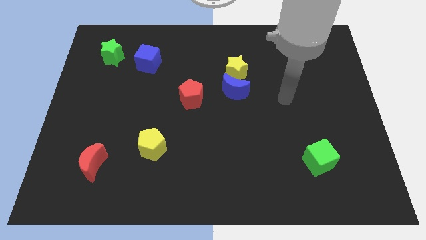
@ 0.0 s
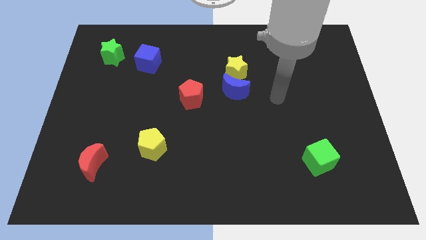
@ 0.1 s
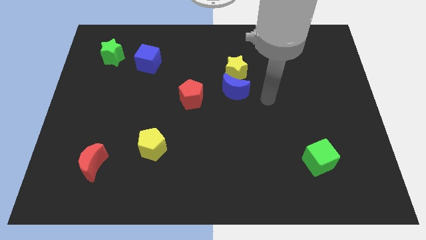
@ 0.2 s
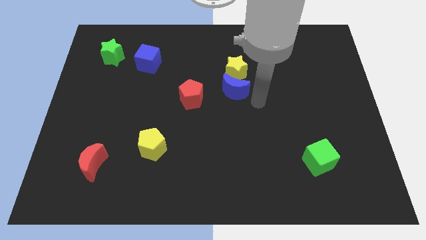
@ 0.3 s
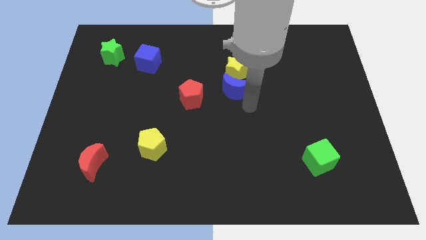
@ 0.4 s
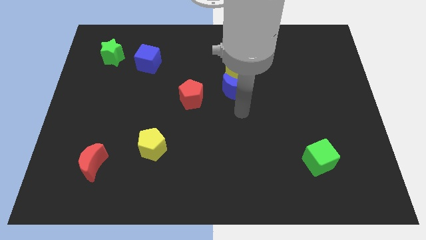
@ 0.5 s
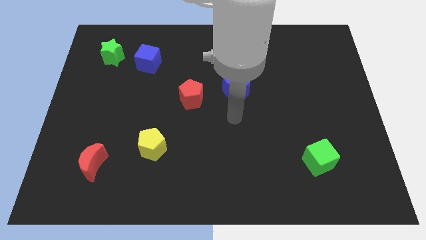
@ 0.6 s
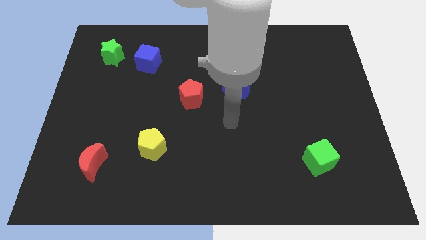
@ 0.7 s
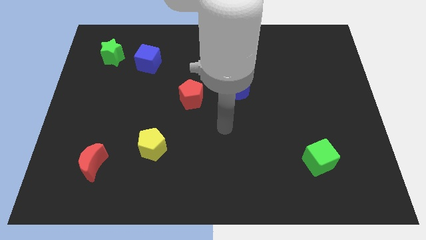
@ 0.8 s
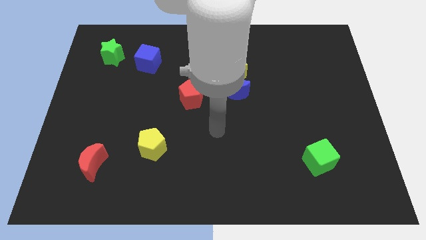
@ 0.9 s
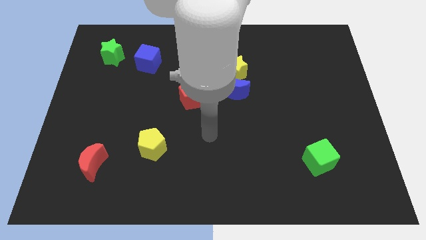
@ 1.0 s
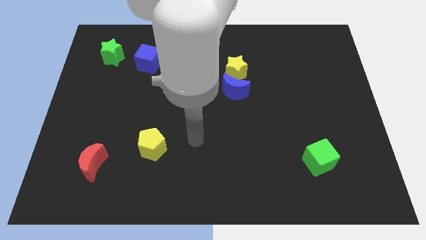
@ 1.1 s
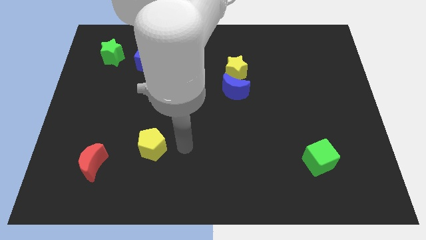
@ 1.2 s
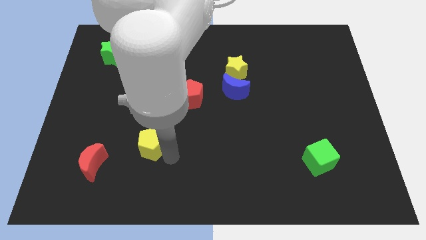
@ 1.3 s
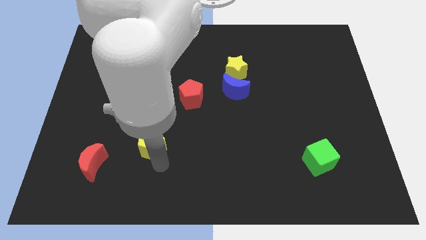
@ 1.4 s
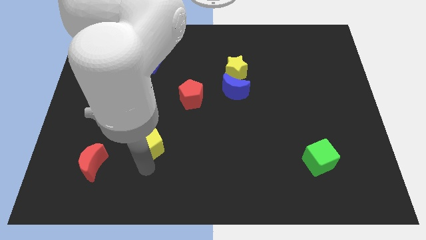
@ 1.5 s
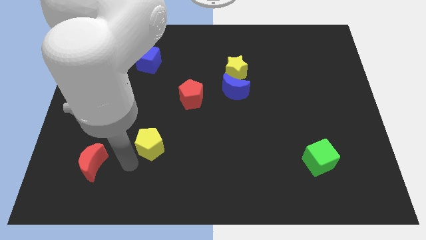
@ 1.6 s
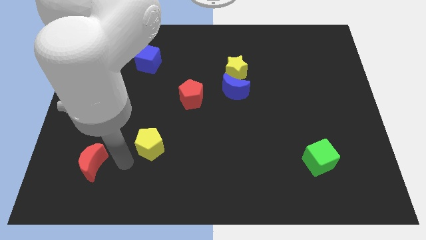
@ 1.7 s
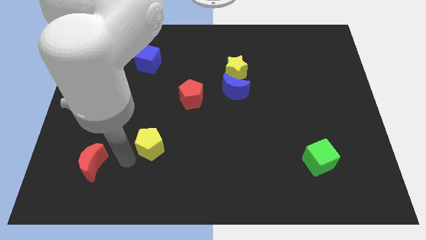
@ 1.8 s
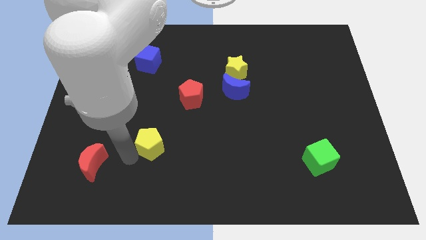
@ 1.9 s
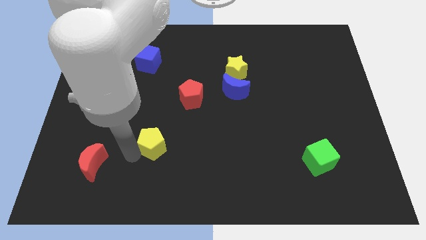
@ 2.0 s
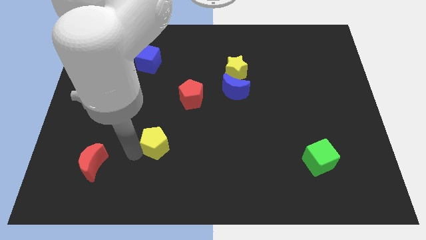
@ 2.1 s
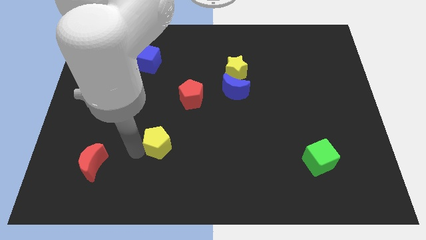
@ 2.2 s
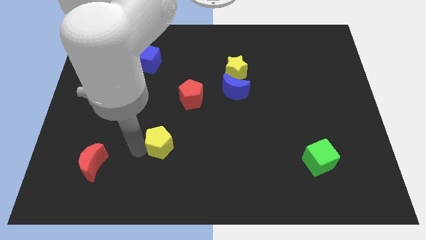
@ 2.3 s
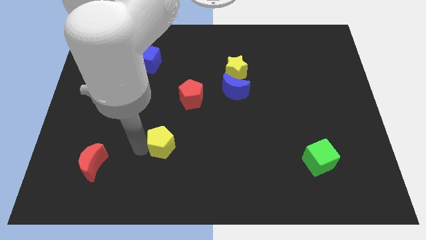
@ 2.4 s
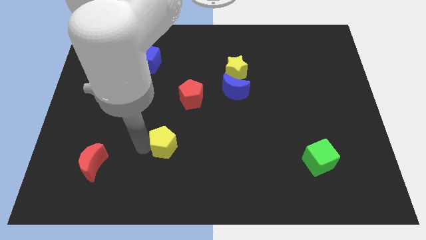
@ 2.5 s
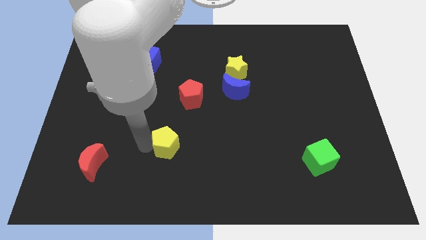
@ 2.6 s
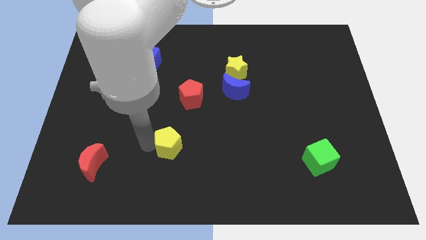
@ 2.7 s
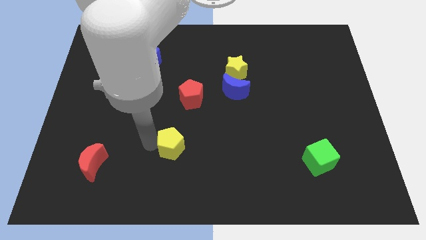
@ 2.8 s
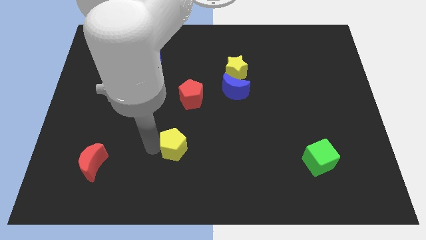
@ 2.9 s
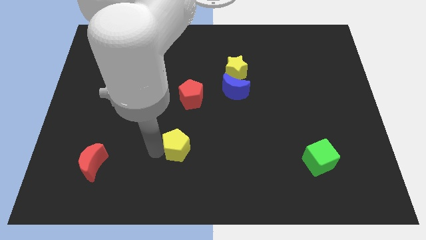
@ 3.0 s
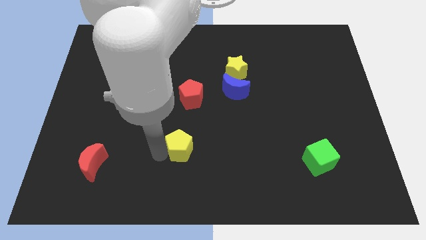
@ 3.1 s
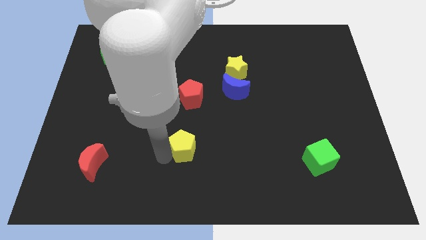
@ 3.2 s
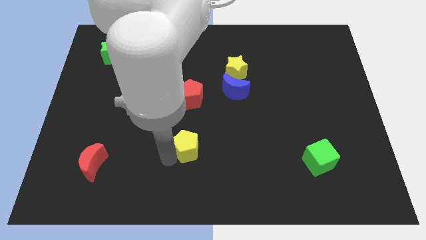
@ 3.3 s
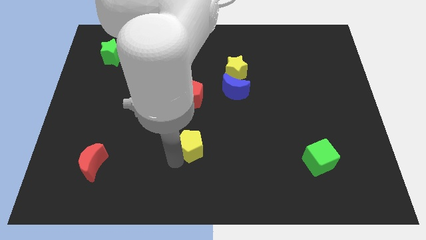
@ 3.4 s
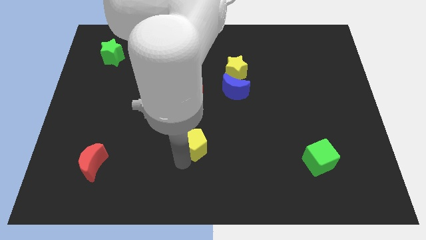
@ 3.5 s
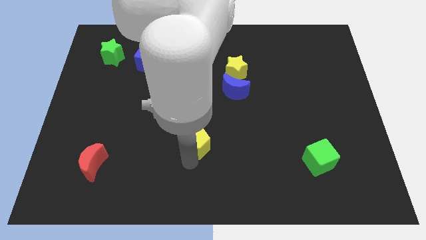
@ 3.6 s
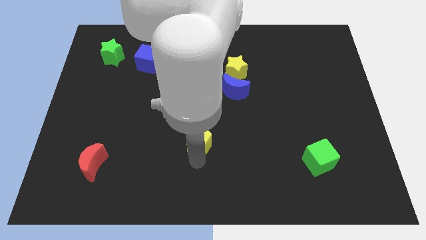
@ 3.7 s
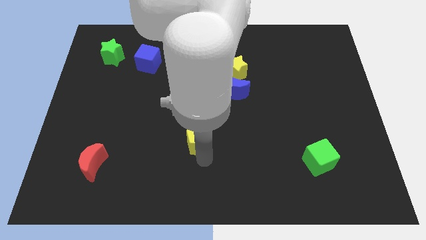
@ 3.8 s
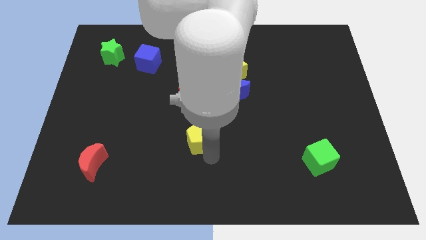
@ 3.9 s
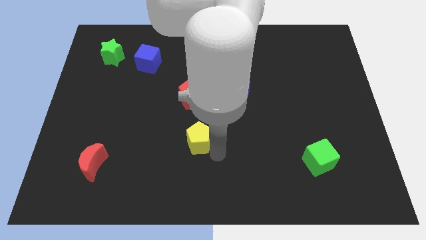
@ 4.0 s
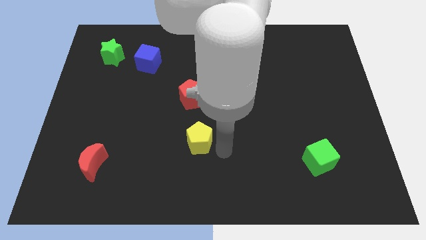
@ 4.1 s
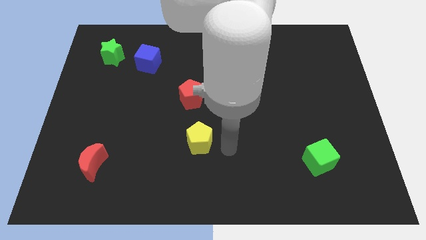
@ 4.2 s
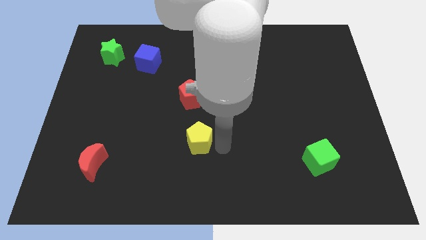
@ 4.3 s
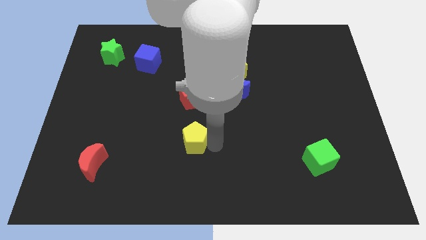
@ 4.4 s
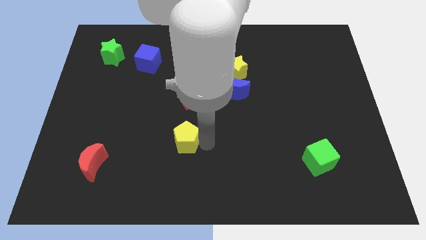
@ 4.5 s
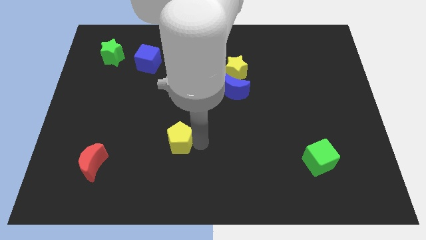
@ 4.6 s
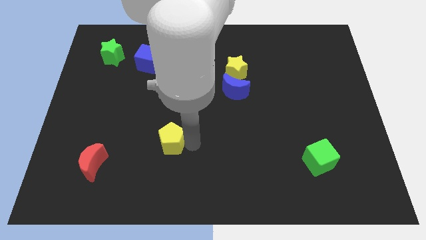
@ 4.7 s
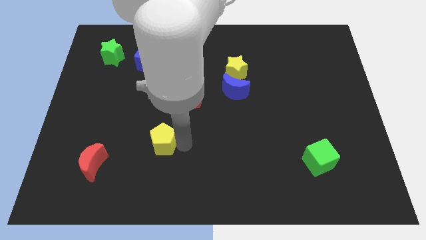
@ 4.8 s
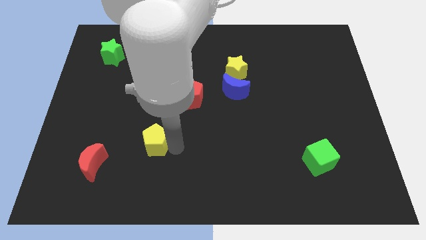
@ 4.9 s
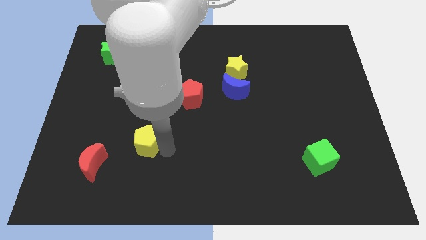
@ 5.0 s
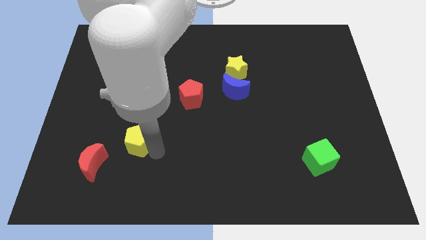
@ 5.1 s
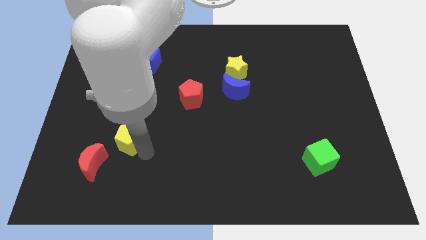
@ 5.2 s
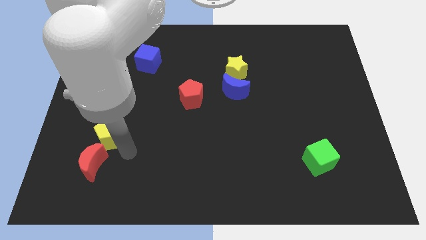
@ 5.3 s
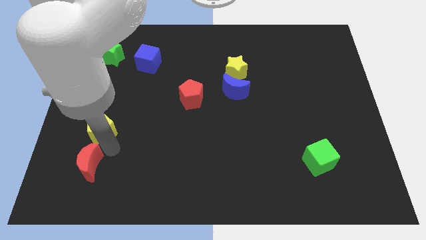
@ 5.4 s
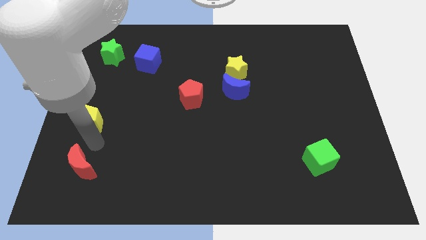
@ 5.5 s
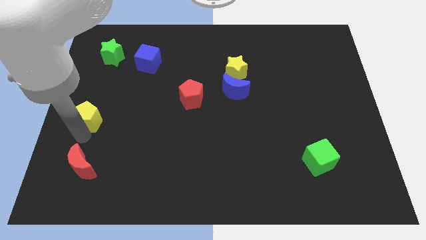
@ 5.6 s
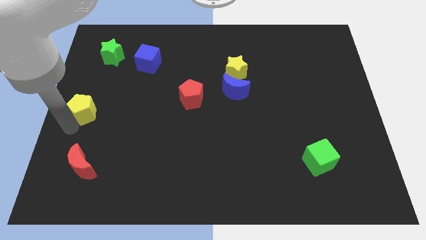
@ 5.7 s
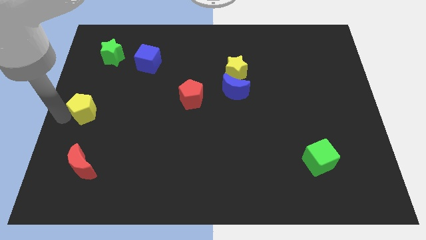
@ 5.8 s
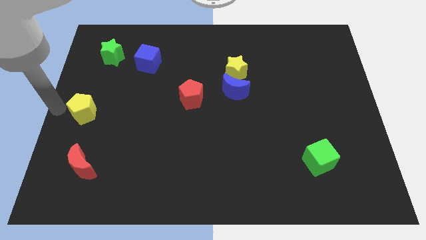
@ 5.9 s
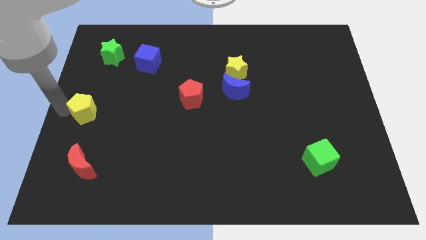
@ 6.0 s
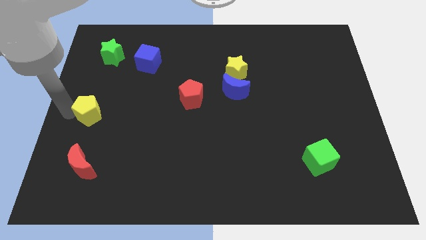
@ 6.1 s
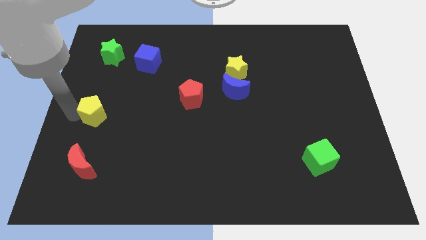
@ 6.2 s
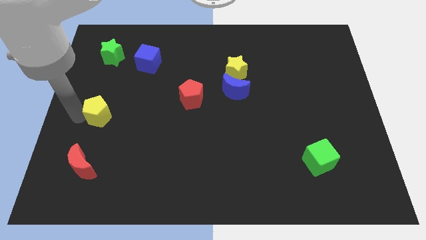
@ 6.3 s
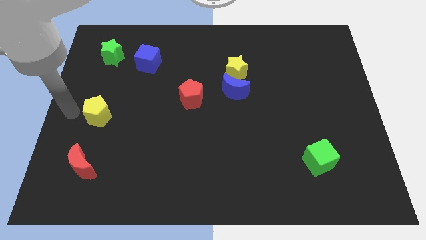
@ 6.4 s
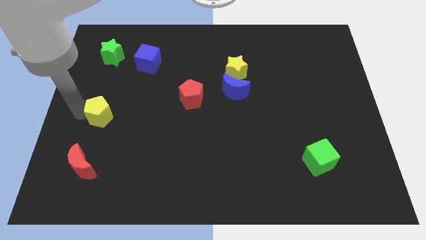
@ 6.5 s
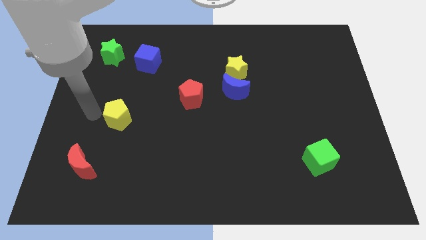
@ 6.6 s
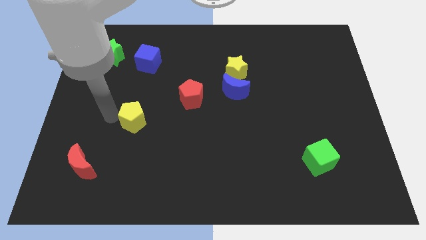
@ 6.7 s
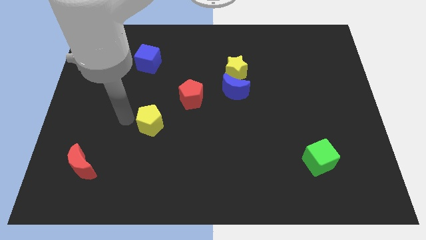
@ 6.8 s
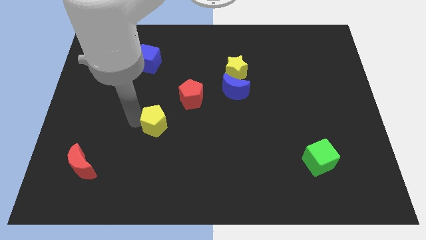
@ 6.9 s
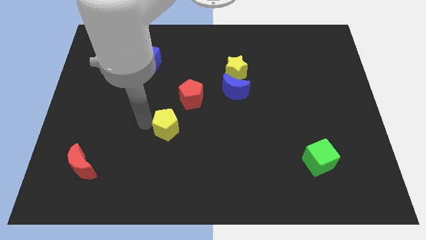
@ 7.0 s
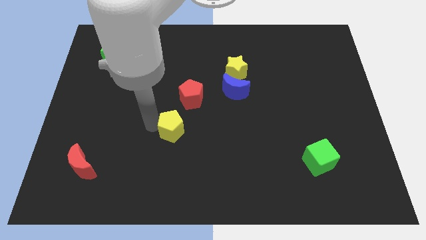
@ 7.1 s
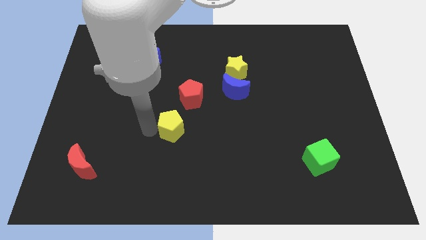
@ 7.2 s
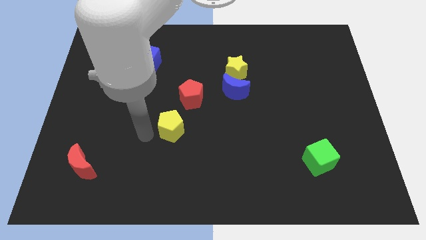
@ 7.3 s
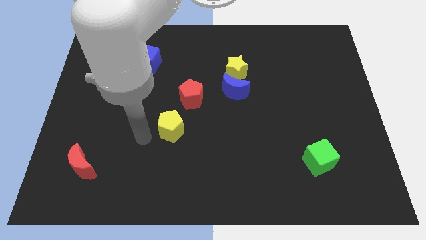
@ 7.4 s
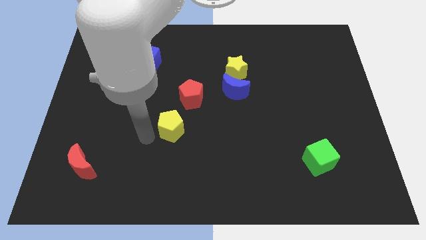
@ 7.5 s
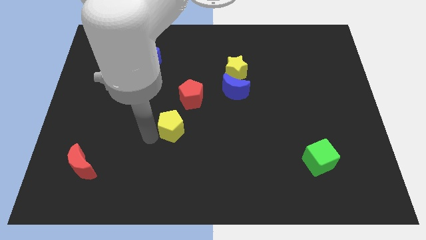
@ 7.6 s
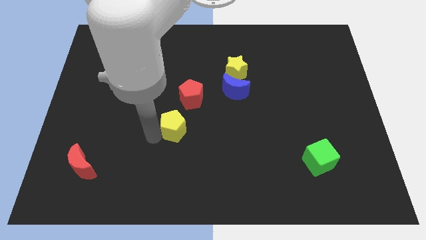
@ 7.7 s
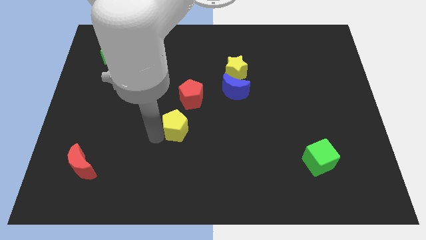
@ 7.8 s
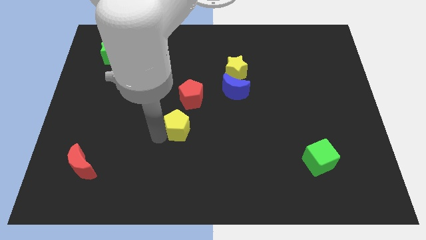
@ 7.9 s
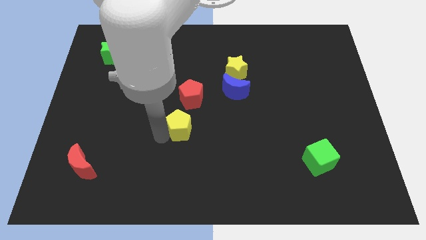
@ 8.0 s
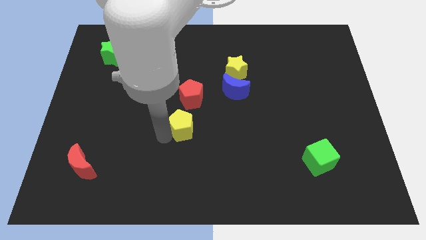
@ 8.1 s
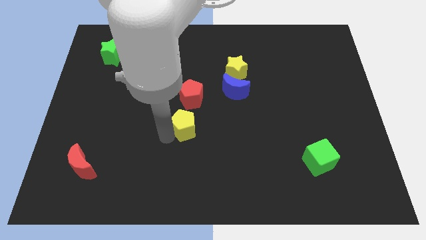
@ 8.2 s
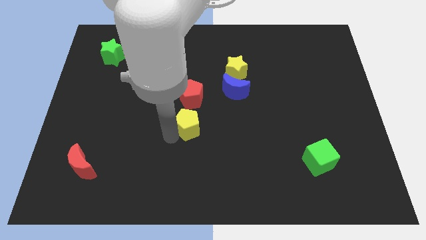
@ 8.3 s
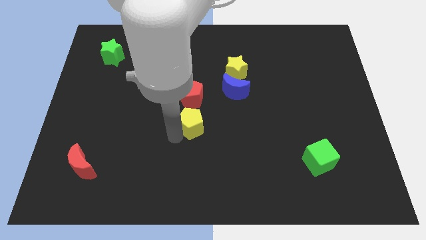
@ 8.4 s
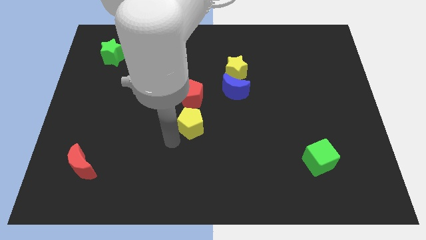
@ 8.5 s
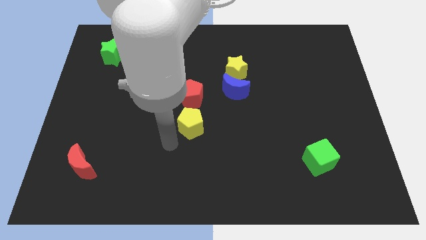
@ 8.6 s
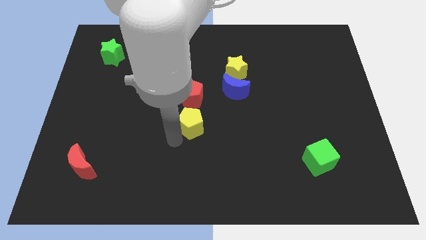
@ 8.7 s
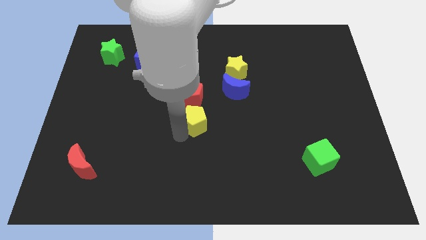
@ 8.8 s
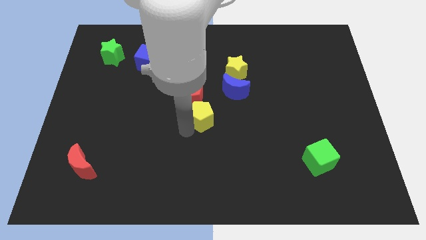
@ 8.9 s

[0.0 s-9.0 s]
push the yellow pentagon diagonally down and to the left of the blue moon
